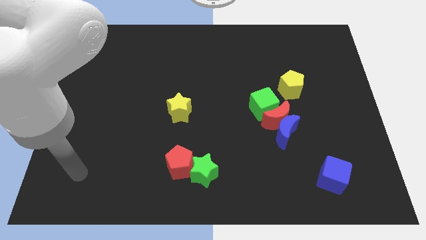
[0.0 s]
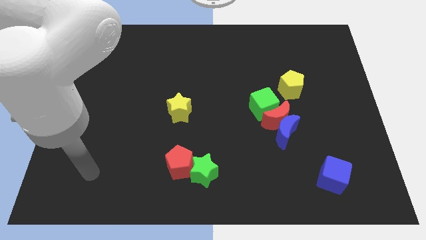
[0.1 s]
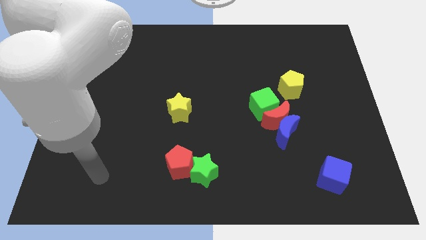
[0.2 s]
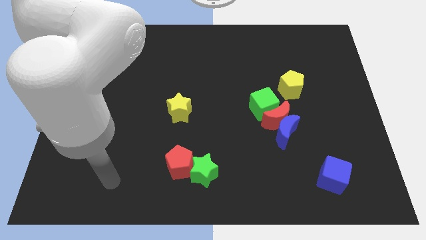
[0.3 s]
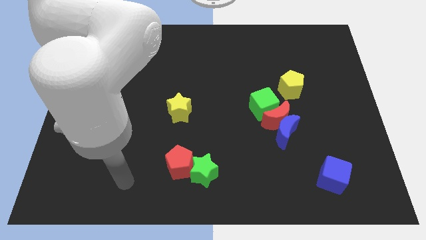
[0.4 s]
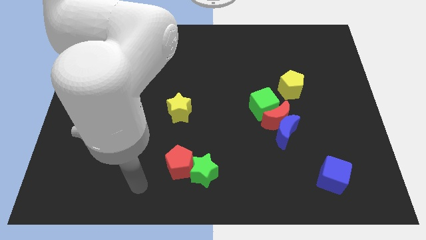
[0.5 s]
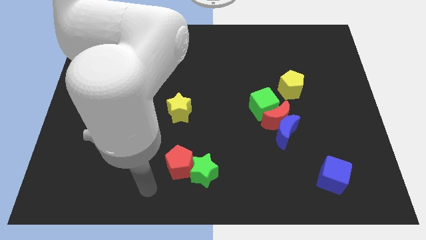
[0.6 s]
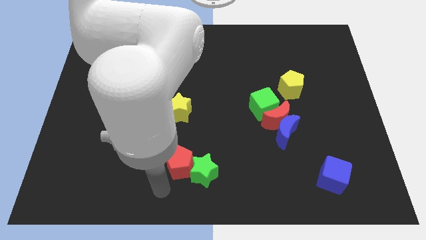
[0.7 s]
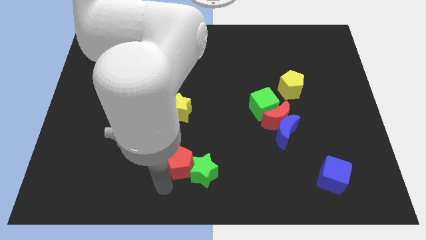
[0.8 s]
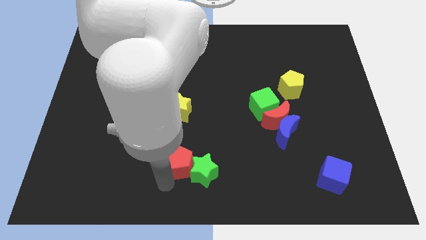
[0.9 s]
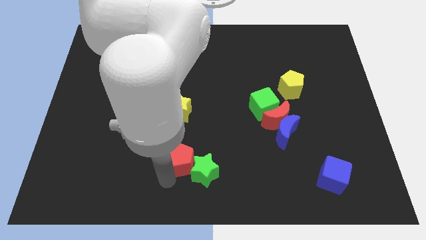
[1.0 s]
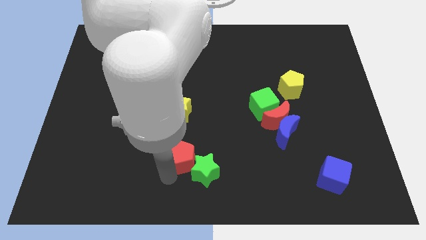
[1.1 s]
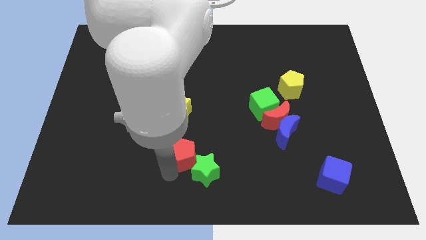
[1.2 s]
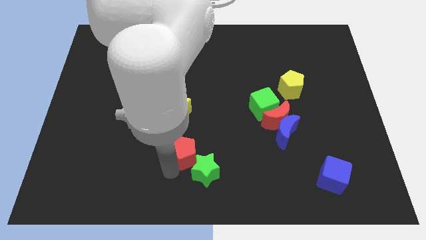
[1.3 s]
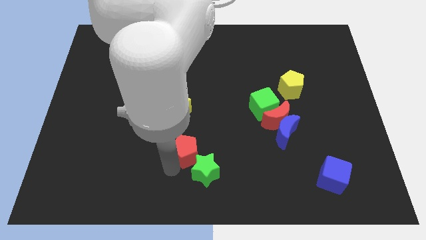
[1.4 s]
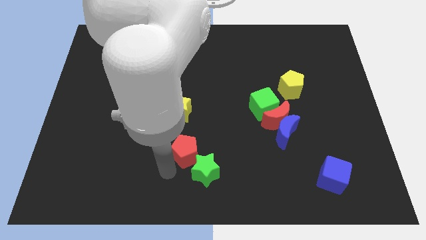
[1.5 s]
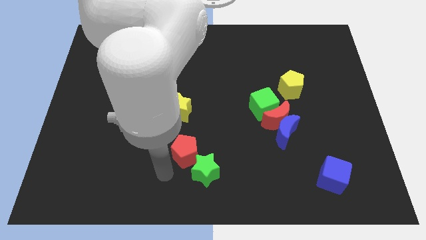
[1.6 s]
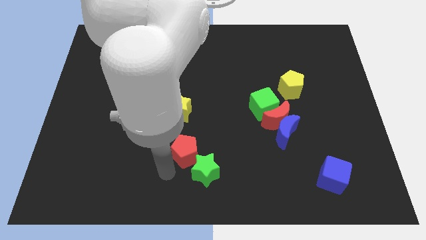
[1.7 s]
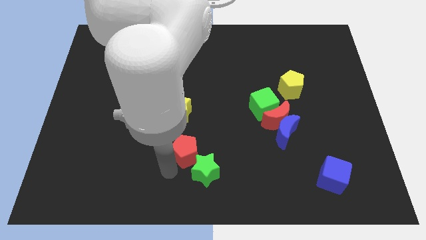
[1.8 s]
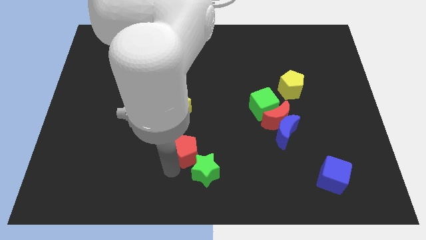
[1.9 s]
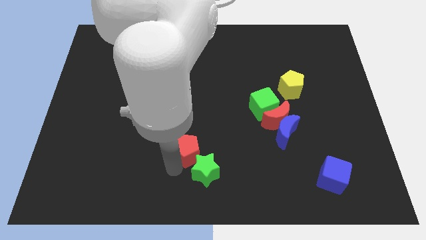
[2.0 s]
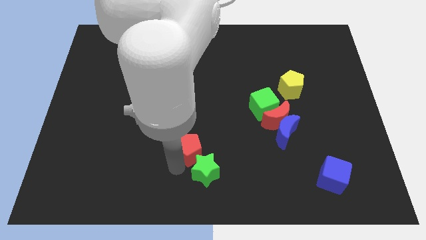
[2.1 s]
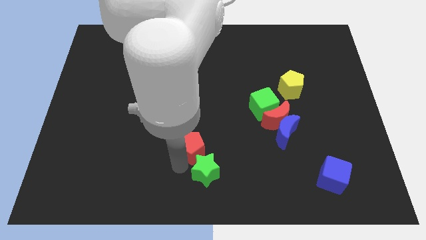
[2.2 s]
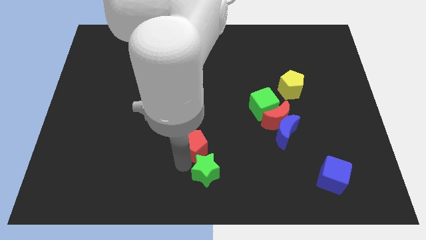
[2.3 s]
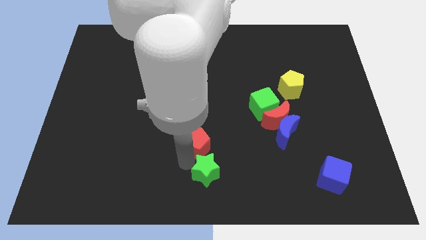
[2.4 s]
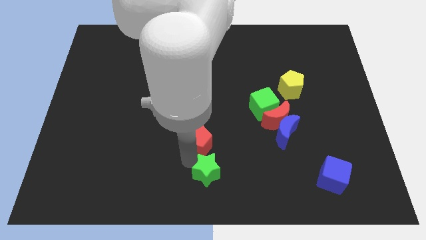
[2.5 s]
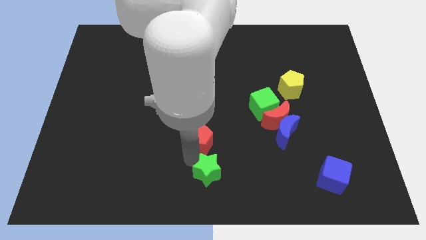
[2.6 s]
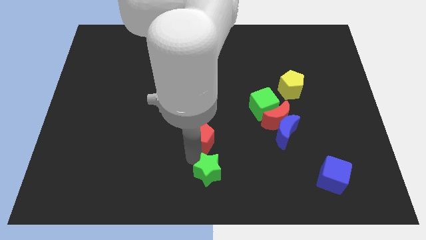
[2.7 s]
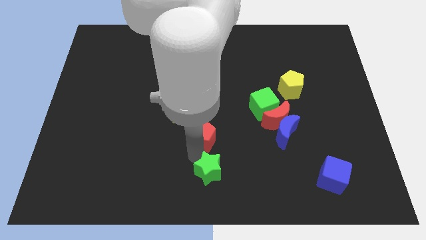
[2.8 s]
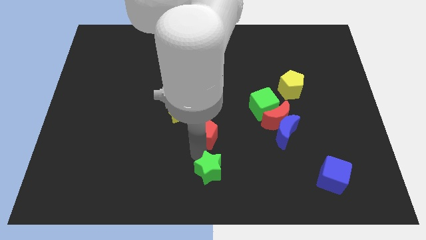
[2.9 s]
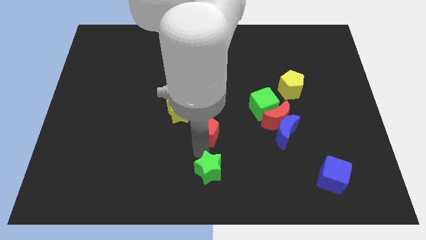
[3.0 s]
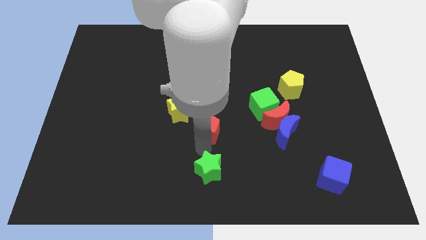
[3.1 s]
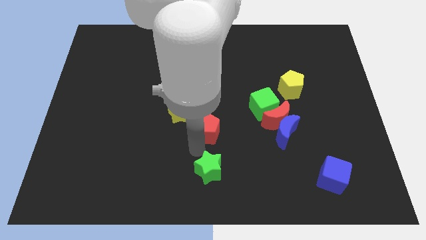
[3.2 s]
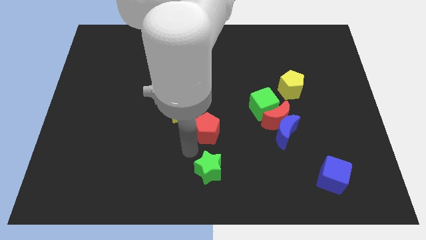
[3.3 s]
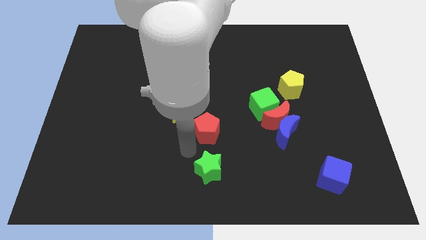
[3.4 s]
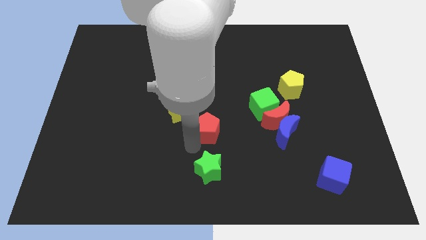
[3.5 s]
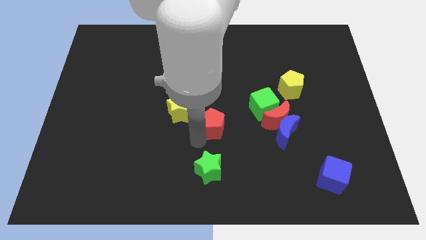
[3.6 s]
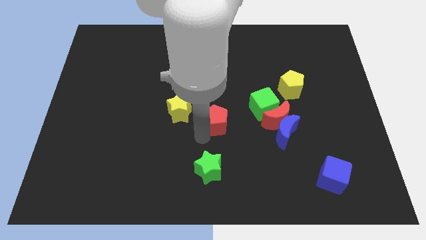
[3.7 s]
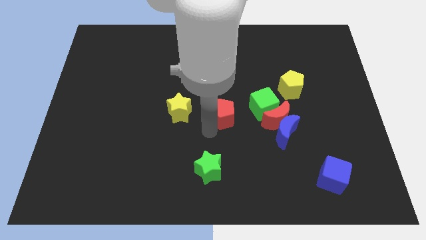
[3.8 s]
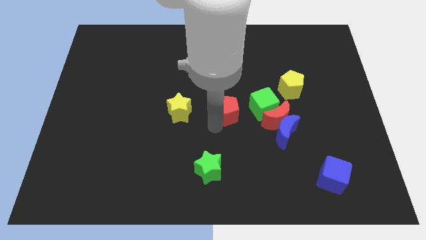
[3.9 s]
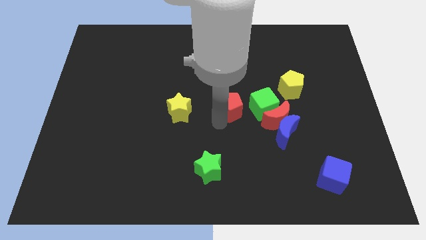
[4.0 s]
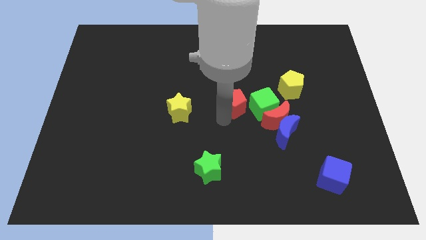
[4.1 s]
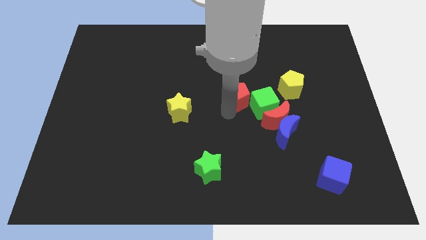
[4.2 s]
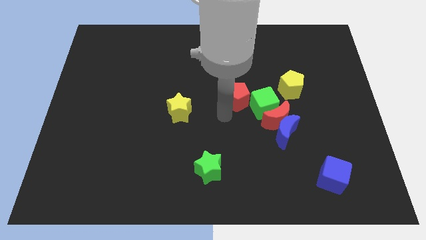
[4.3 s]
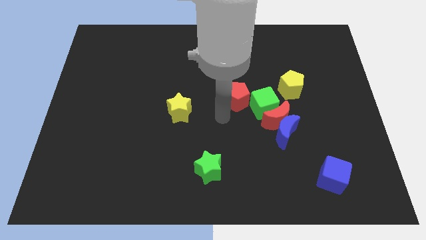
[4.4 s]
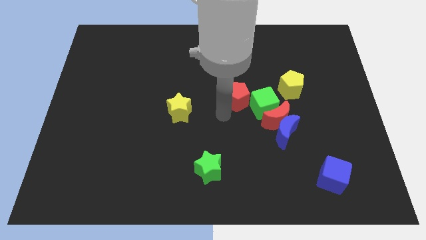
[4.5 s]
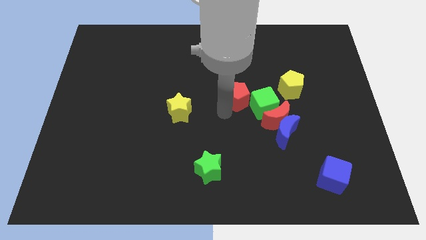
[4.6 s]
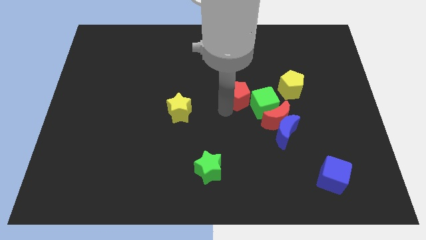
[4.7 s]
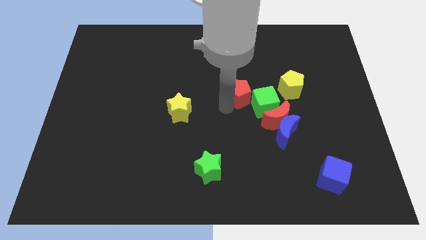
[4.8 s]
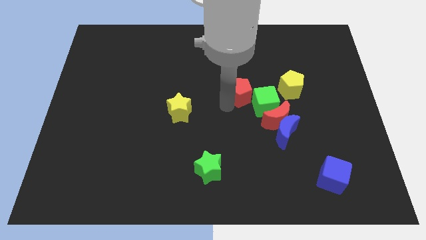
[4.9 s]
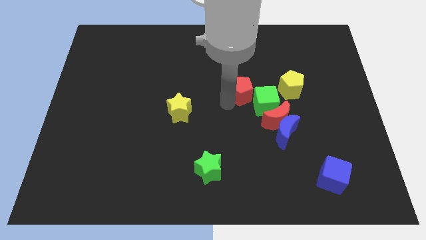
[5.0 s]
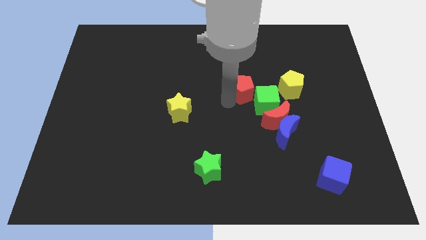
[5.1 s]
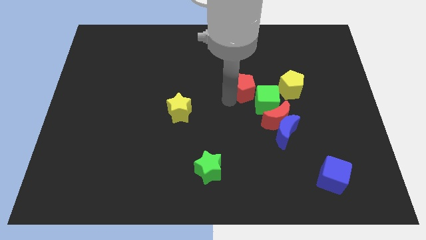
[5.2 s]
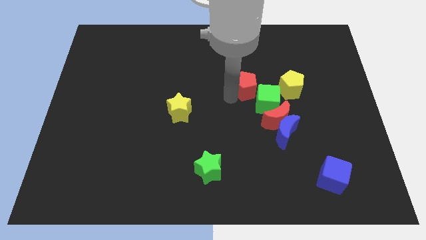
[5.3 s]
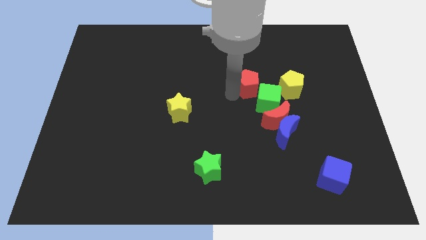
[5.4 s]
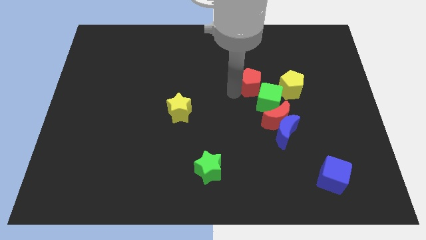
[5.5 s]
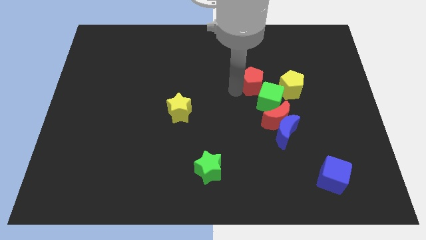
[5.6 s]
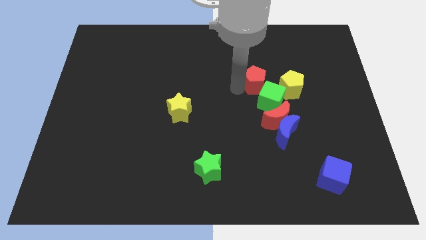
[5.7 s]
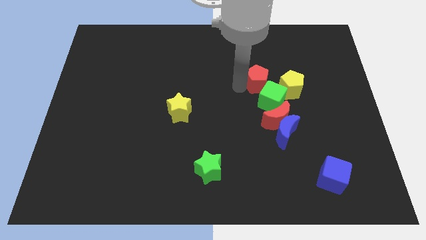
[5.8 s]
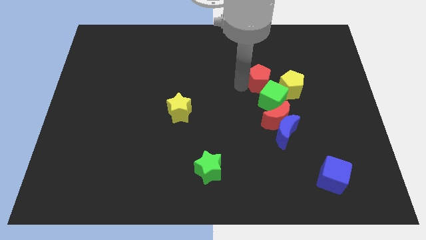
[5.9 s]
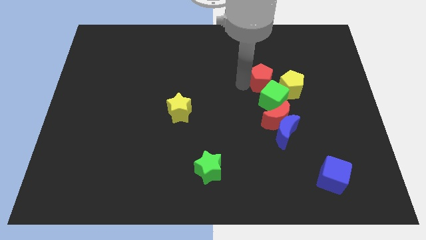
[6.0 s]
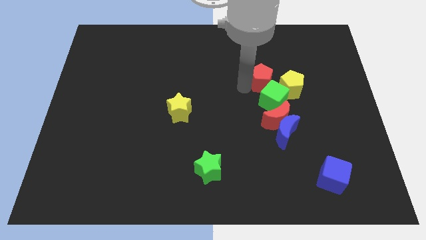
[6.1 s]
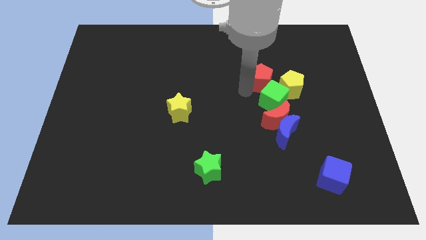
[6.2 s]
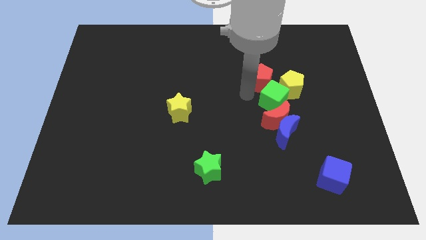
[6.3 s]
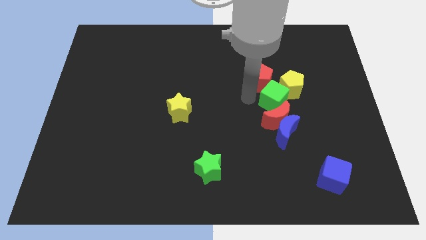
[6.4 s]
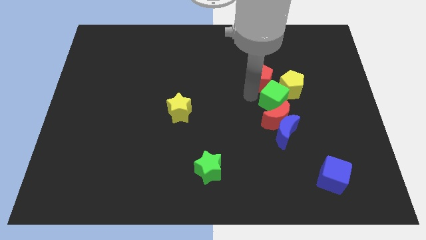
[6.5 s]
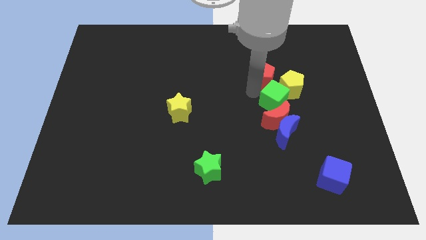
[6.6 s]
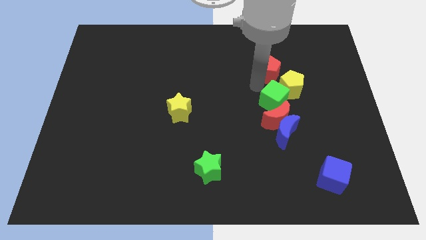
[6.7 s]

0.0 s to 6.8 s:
move the red pentagon above the yellow pentagon
